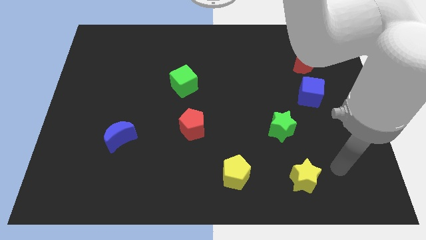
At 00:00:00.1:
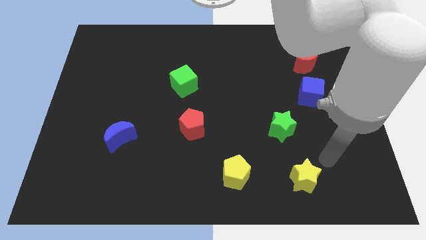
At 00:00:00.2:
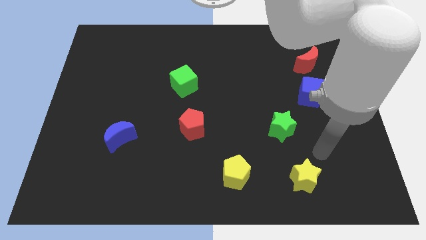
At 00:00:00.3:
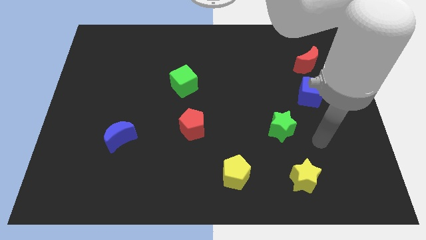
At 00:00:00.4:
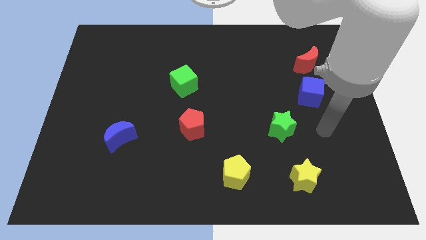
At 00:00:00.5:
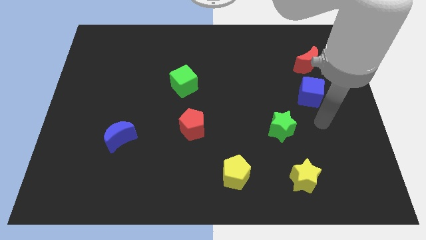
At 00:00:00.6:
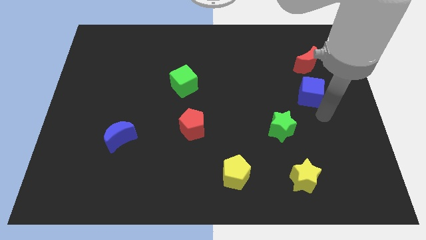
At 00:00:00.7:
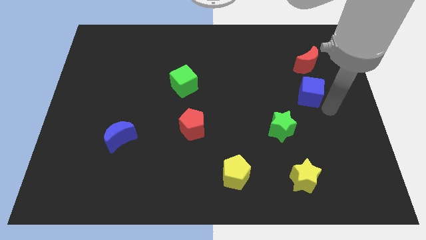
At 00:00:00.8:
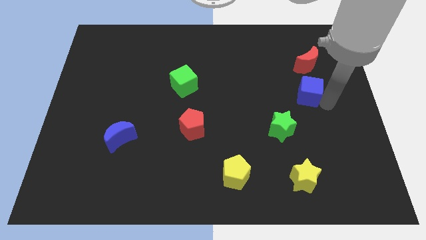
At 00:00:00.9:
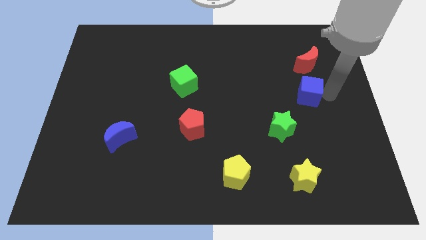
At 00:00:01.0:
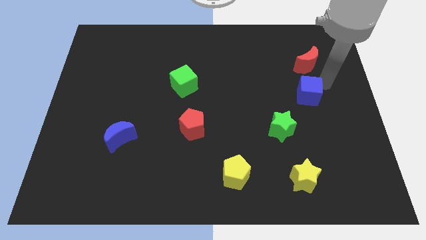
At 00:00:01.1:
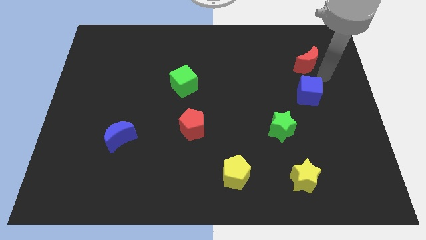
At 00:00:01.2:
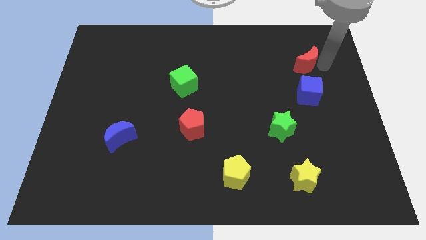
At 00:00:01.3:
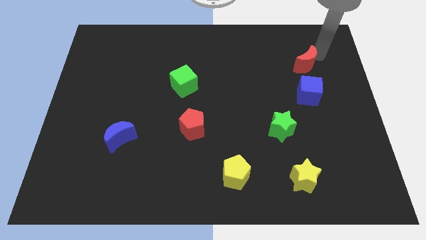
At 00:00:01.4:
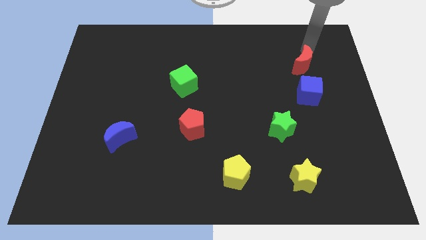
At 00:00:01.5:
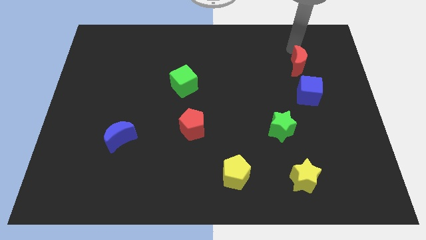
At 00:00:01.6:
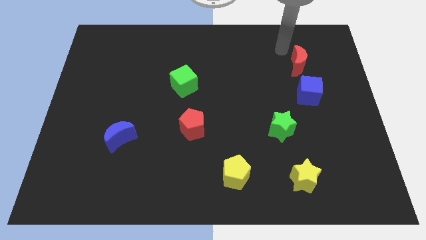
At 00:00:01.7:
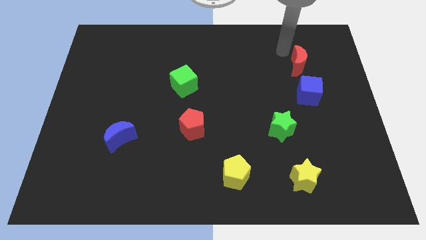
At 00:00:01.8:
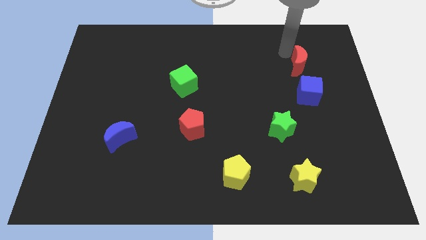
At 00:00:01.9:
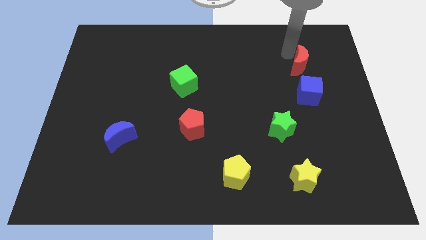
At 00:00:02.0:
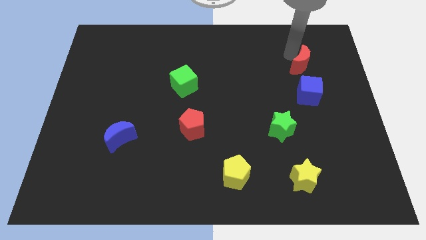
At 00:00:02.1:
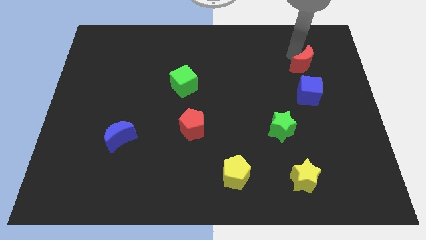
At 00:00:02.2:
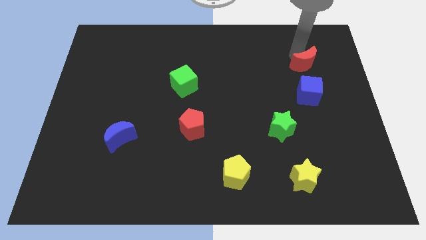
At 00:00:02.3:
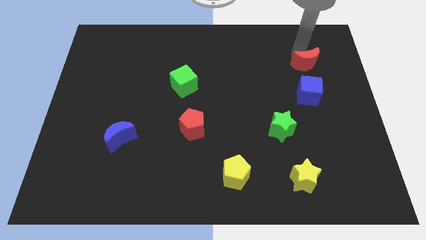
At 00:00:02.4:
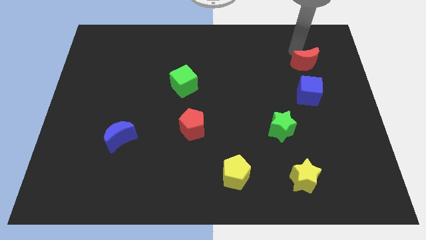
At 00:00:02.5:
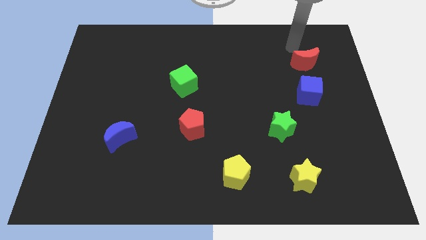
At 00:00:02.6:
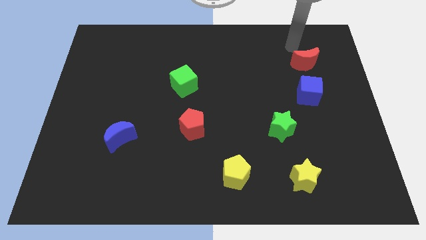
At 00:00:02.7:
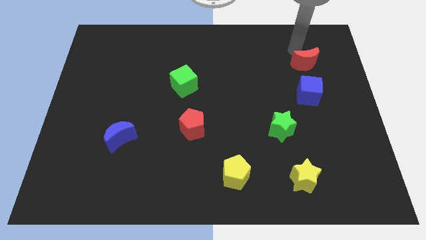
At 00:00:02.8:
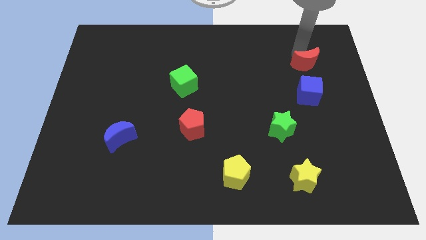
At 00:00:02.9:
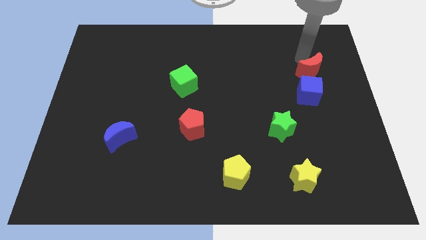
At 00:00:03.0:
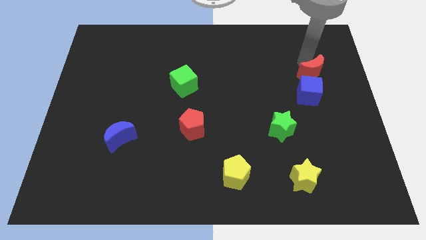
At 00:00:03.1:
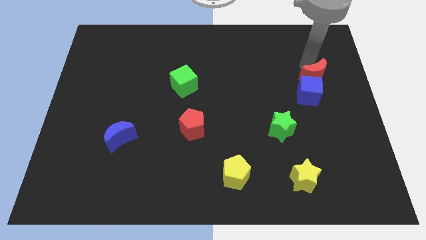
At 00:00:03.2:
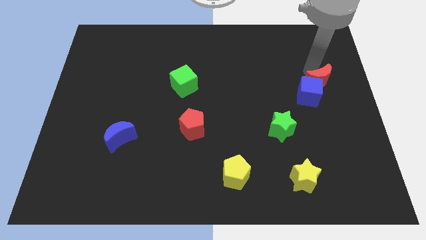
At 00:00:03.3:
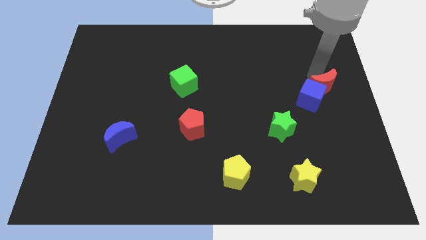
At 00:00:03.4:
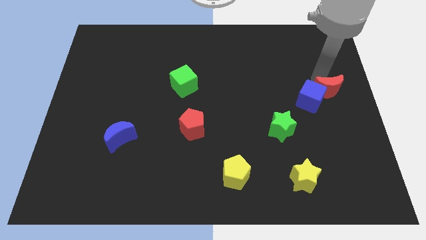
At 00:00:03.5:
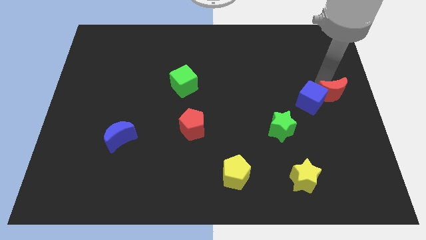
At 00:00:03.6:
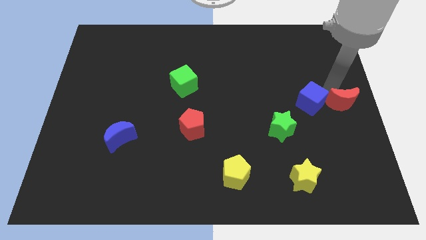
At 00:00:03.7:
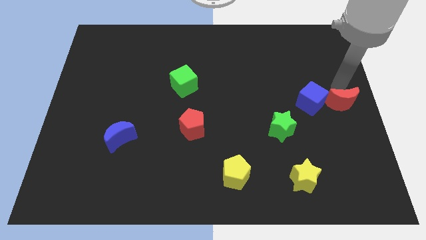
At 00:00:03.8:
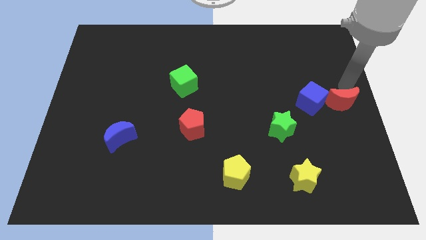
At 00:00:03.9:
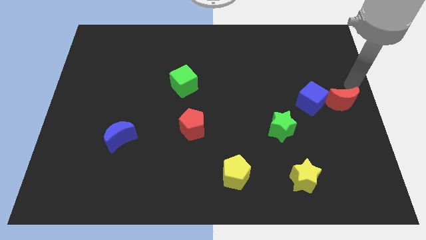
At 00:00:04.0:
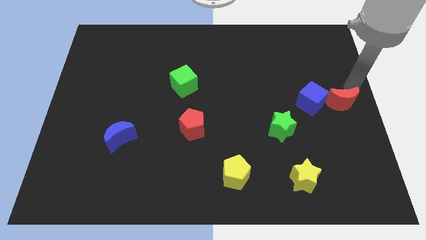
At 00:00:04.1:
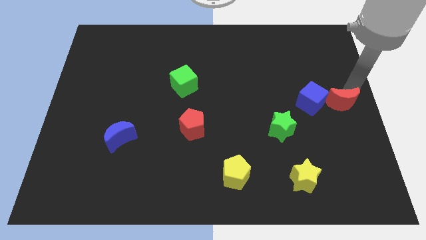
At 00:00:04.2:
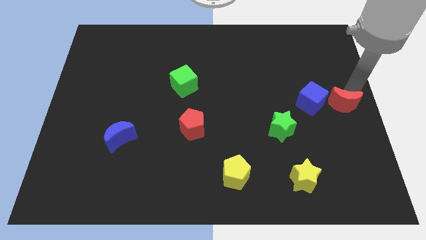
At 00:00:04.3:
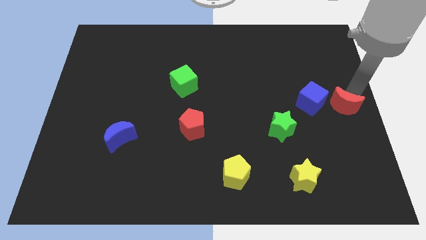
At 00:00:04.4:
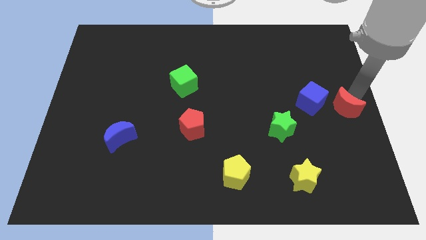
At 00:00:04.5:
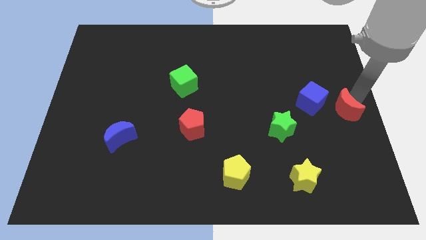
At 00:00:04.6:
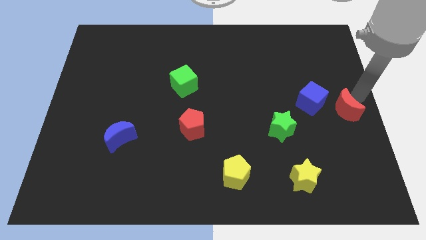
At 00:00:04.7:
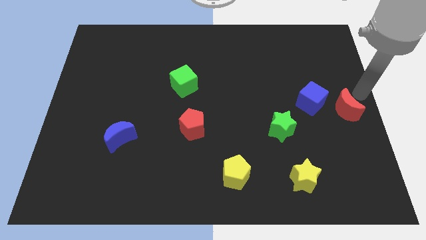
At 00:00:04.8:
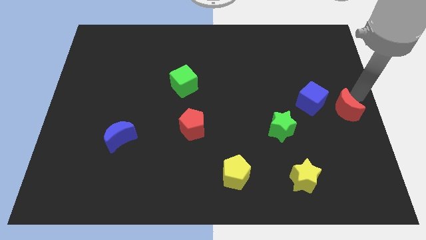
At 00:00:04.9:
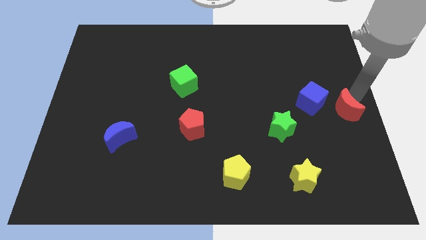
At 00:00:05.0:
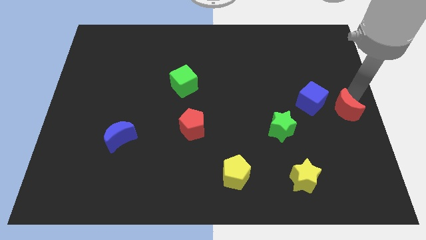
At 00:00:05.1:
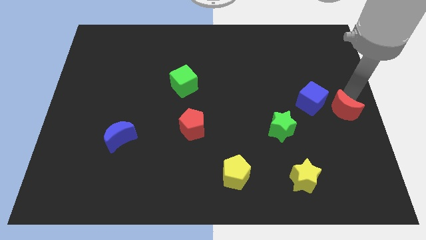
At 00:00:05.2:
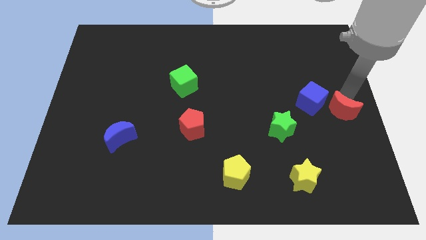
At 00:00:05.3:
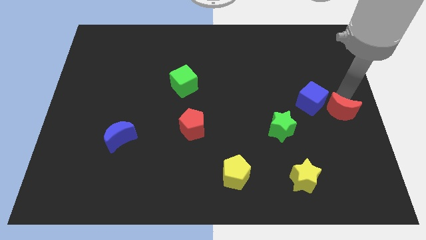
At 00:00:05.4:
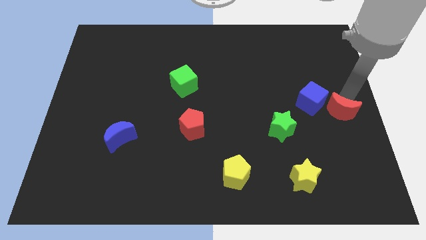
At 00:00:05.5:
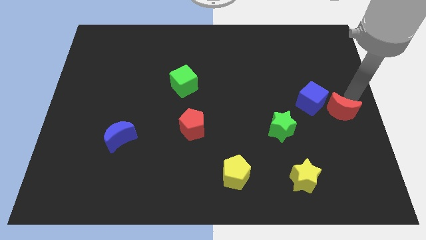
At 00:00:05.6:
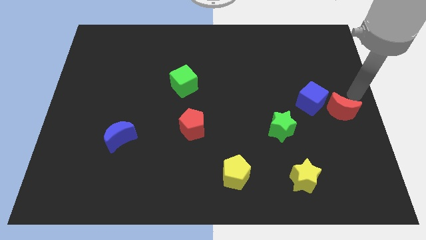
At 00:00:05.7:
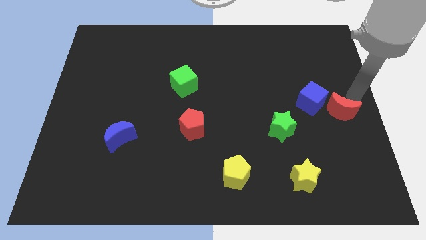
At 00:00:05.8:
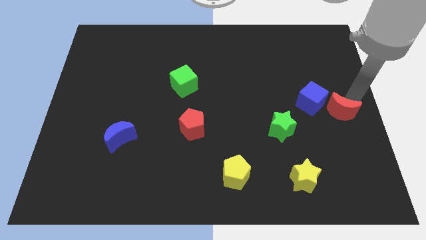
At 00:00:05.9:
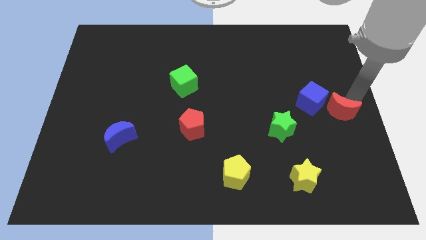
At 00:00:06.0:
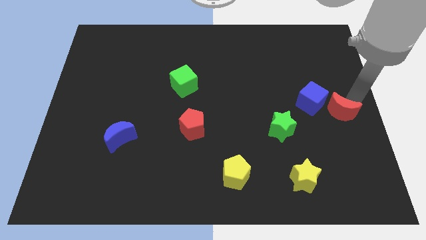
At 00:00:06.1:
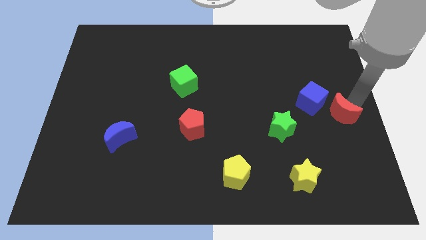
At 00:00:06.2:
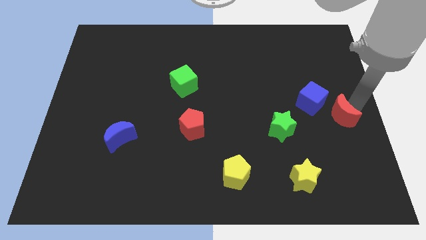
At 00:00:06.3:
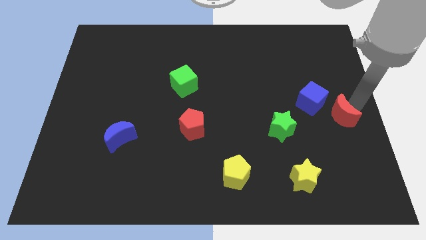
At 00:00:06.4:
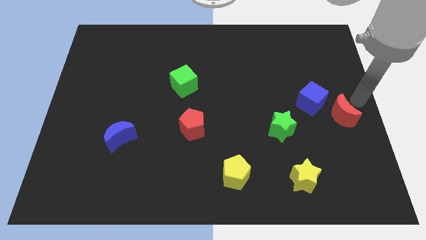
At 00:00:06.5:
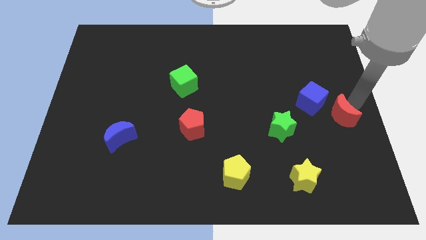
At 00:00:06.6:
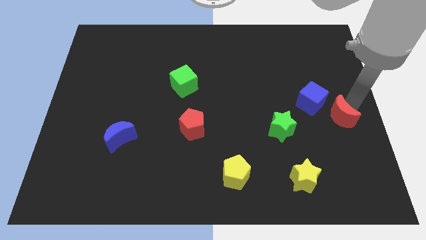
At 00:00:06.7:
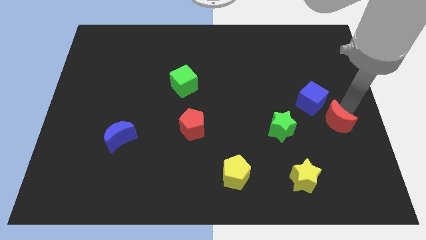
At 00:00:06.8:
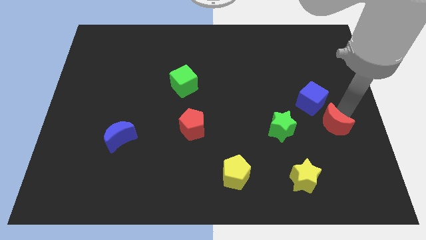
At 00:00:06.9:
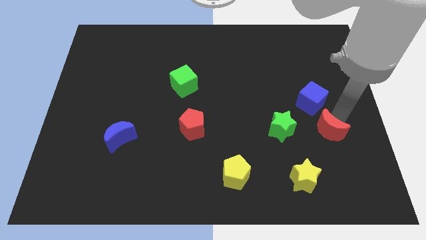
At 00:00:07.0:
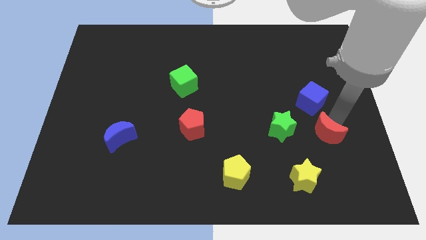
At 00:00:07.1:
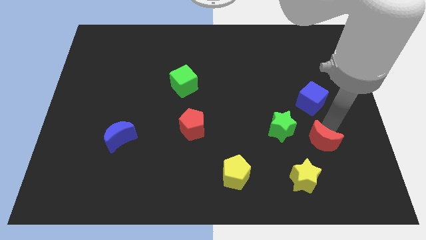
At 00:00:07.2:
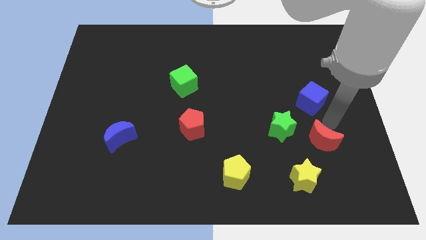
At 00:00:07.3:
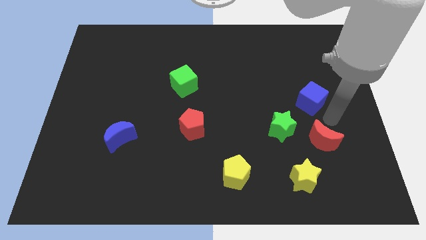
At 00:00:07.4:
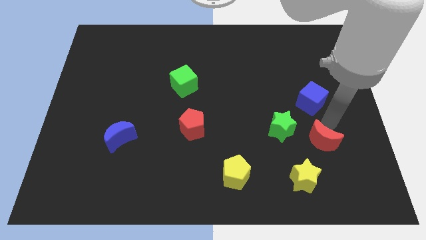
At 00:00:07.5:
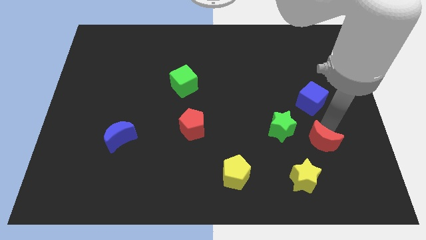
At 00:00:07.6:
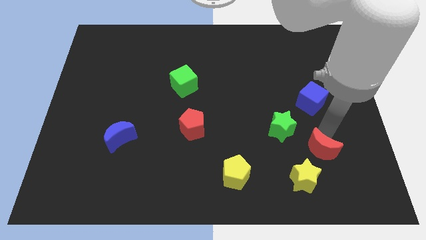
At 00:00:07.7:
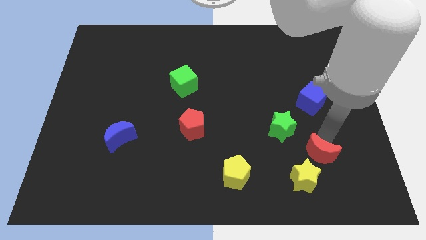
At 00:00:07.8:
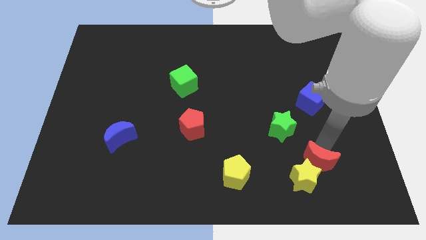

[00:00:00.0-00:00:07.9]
put the red moon next to the yellow star
